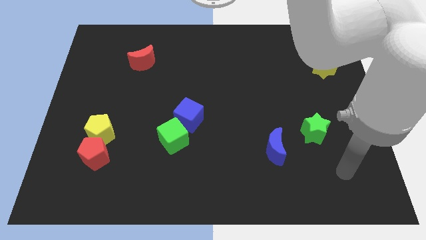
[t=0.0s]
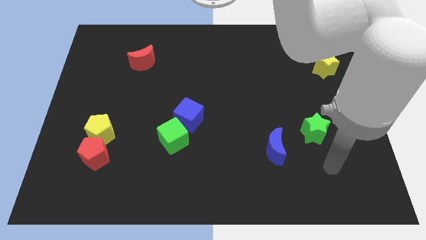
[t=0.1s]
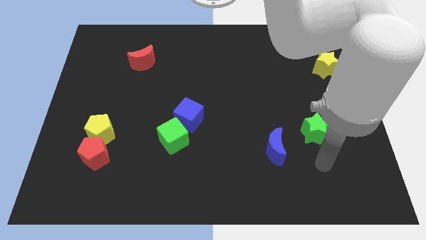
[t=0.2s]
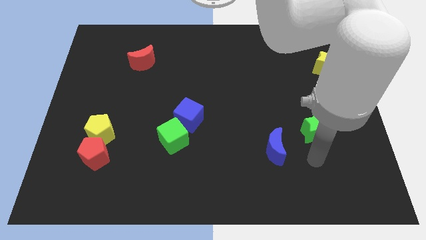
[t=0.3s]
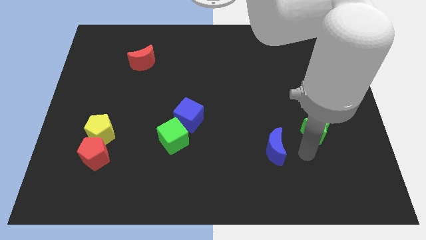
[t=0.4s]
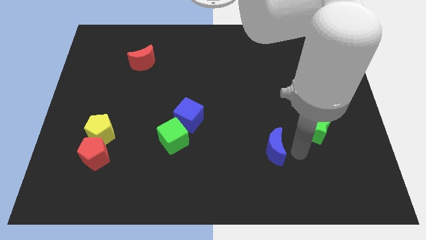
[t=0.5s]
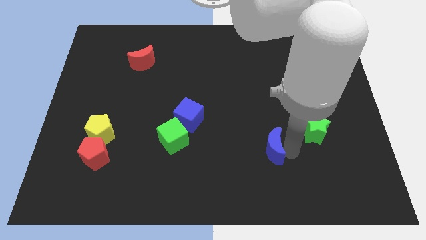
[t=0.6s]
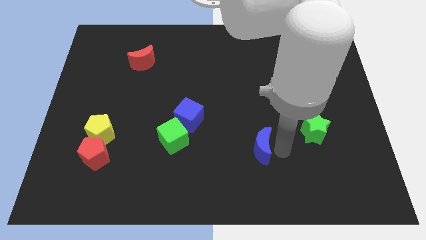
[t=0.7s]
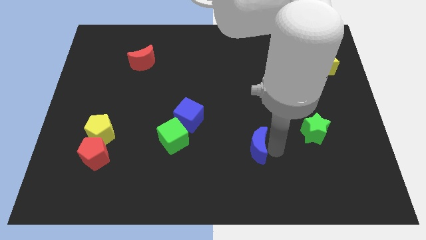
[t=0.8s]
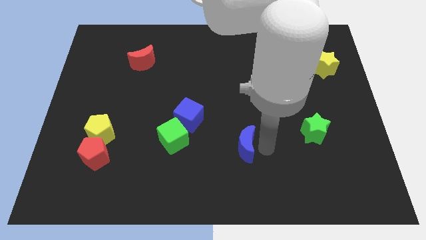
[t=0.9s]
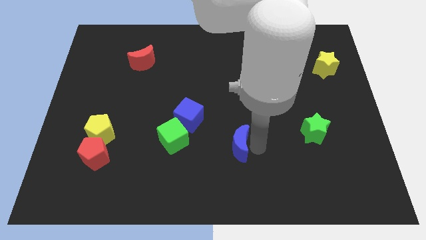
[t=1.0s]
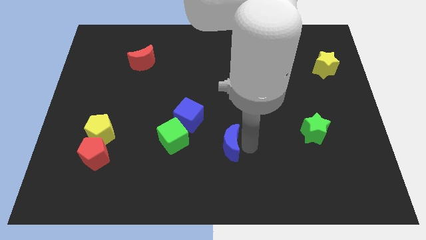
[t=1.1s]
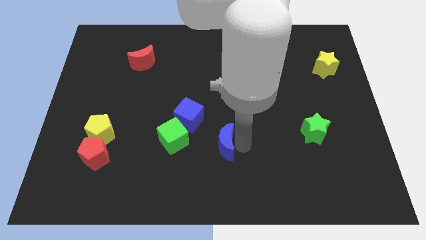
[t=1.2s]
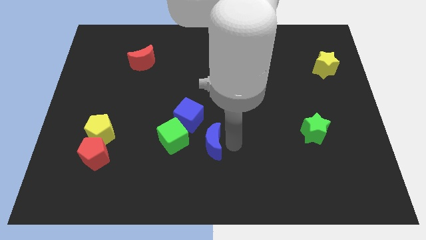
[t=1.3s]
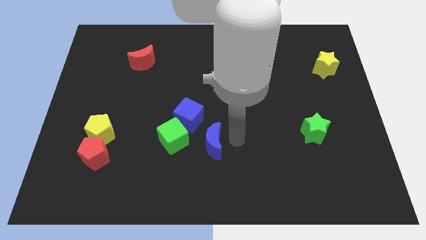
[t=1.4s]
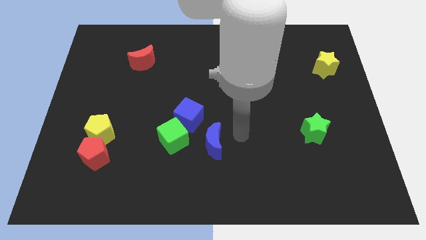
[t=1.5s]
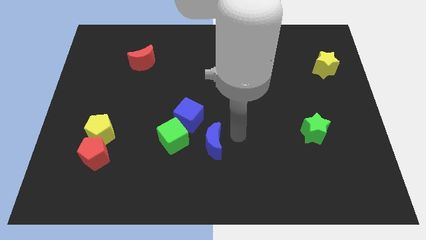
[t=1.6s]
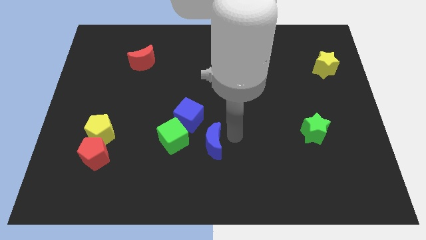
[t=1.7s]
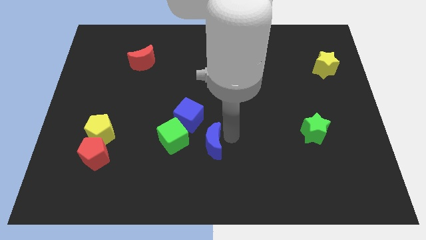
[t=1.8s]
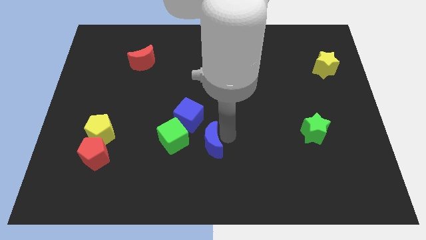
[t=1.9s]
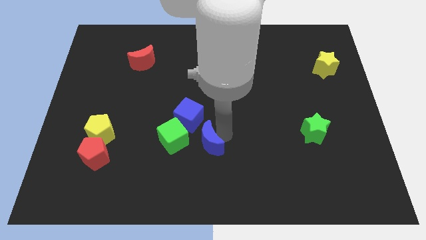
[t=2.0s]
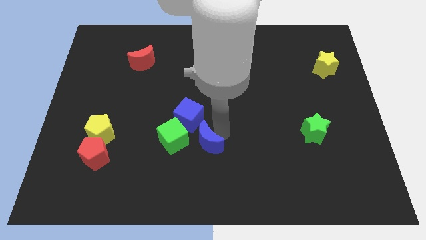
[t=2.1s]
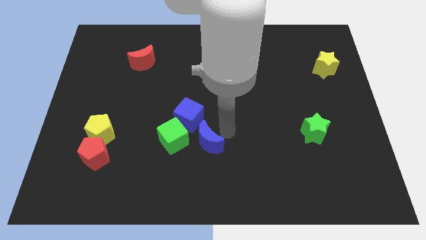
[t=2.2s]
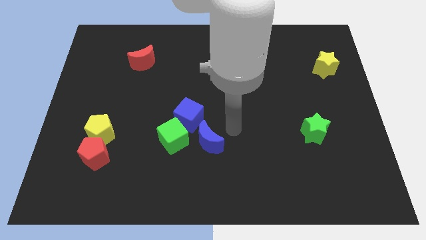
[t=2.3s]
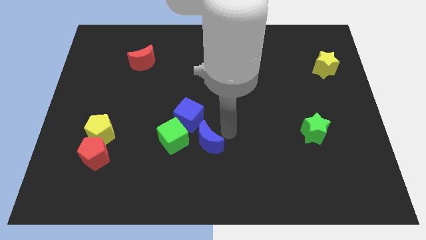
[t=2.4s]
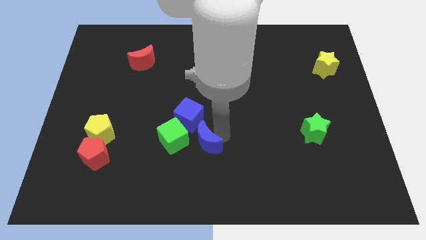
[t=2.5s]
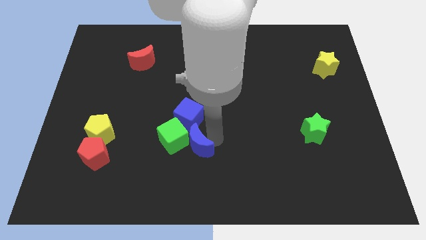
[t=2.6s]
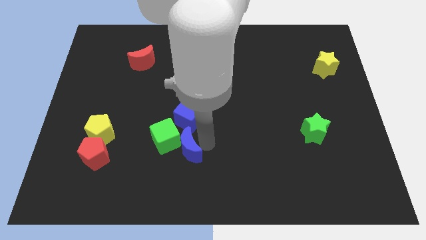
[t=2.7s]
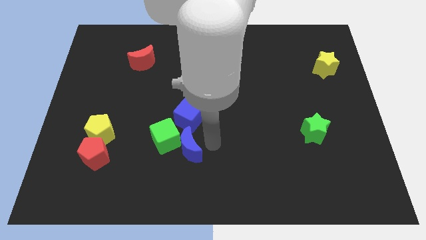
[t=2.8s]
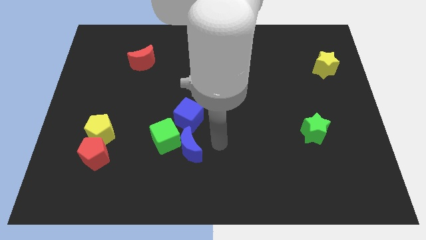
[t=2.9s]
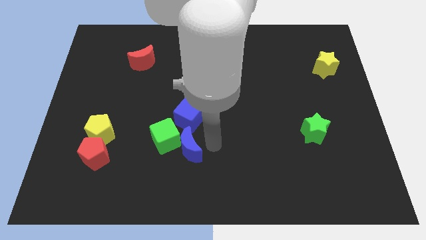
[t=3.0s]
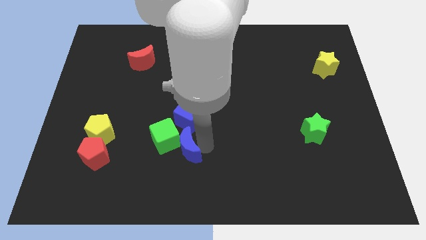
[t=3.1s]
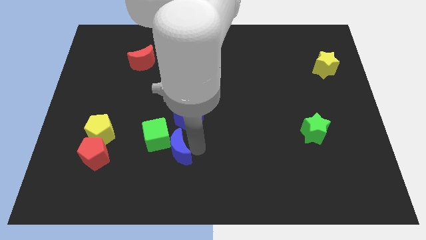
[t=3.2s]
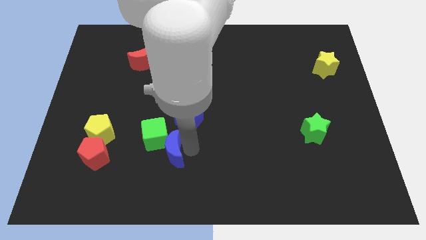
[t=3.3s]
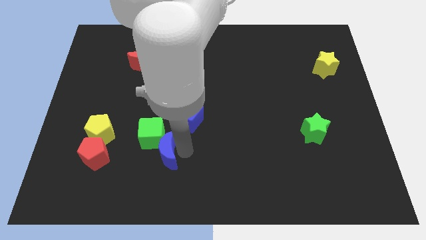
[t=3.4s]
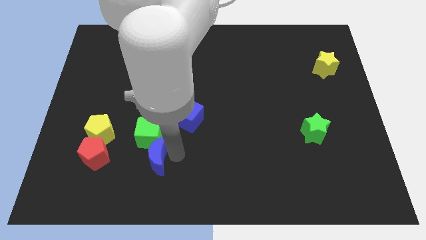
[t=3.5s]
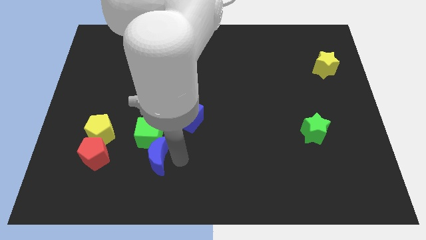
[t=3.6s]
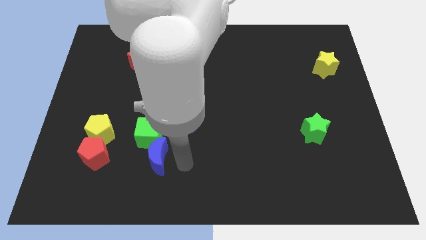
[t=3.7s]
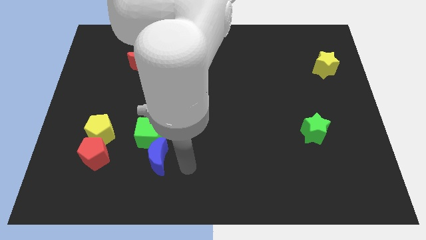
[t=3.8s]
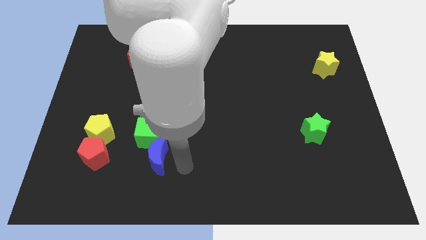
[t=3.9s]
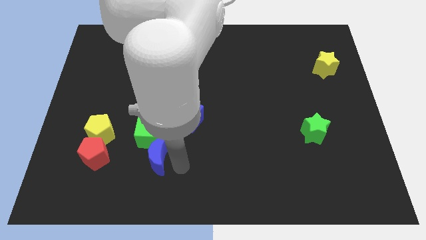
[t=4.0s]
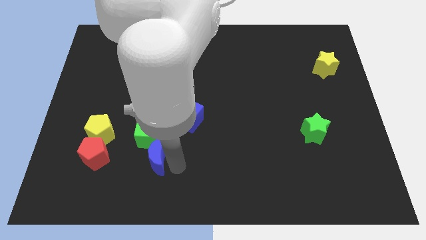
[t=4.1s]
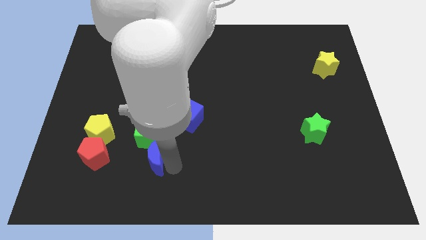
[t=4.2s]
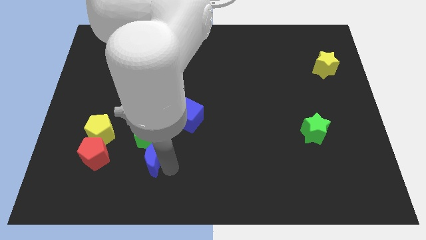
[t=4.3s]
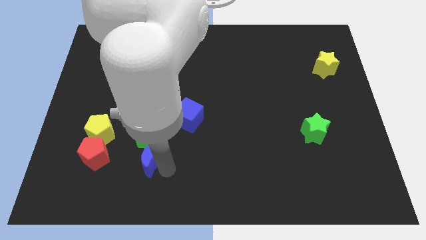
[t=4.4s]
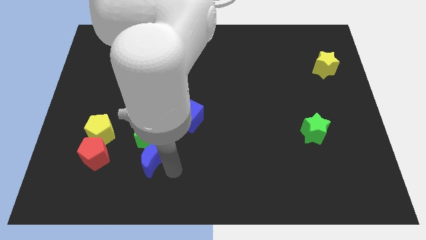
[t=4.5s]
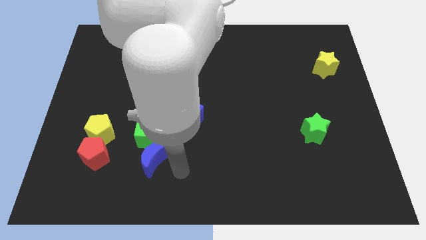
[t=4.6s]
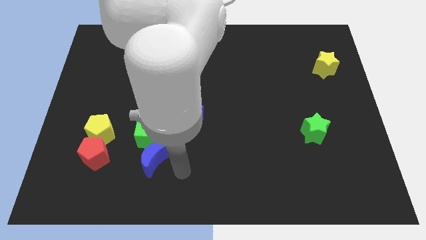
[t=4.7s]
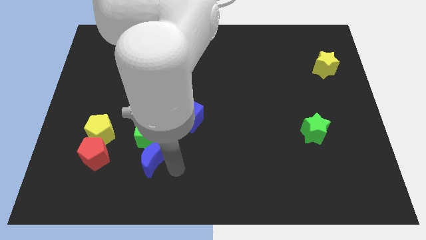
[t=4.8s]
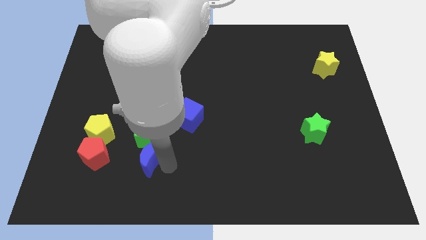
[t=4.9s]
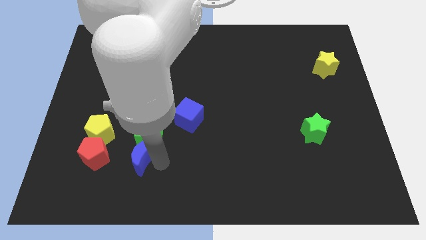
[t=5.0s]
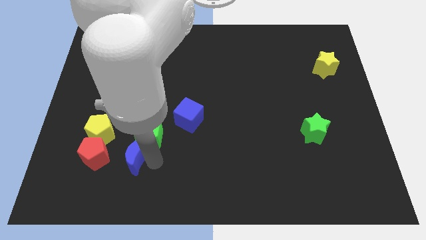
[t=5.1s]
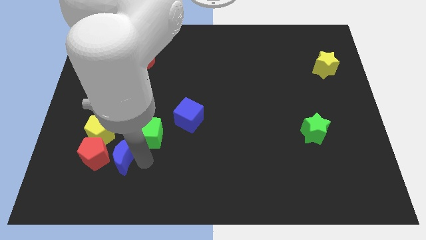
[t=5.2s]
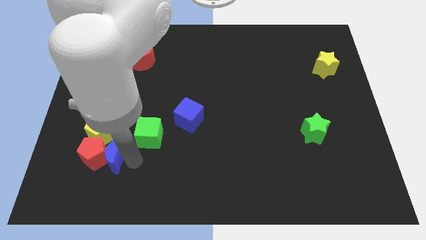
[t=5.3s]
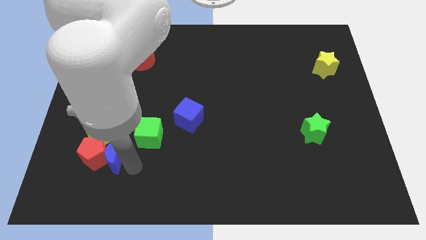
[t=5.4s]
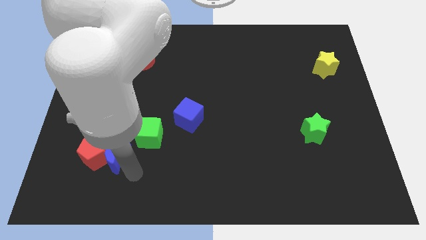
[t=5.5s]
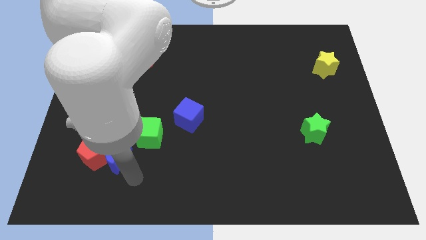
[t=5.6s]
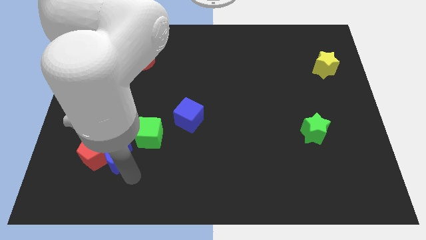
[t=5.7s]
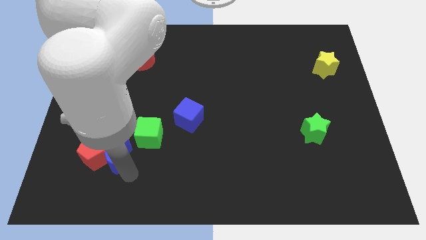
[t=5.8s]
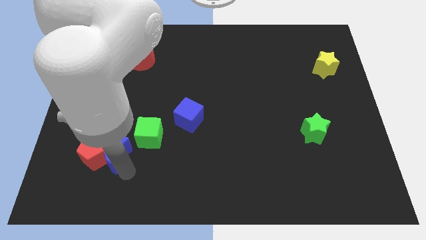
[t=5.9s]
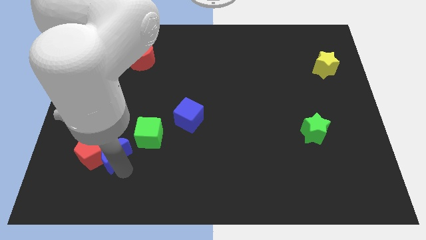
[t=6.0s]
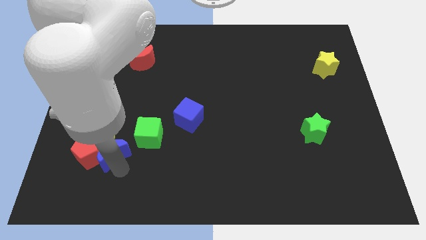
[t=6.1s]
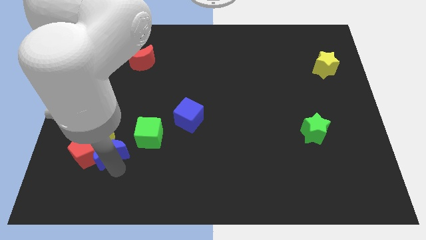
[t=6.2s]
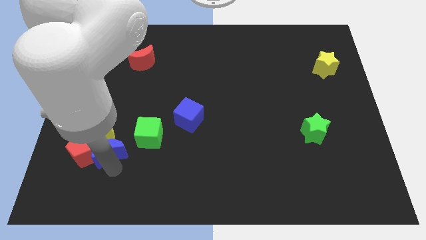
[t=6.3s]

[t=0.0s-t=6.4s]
push the blue moon next to the yellow pentagon

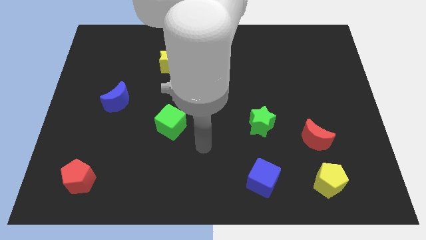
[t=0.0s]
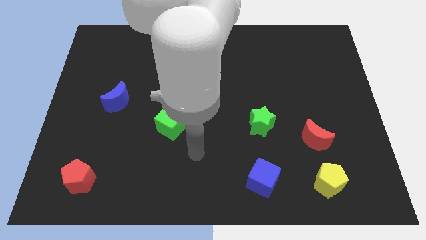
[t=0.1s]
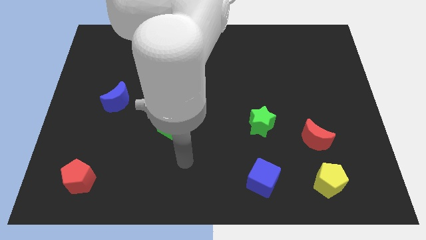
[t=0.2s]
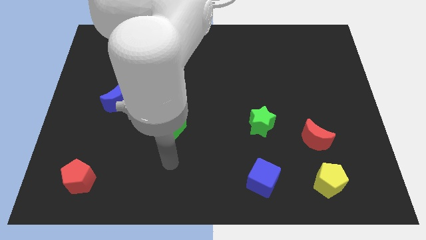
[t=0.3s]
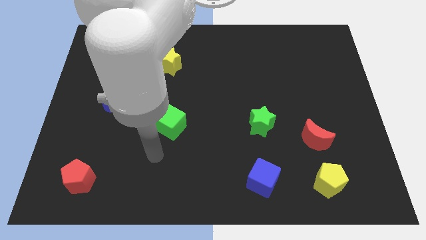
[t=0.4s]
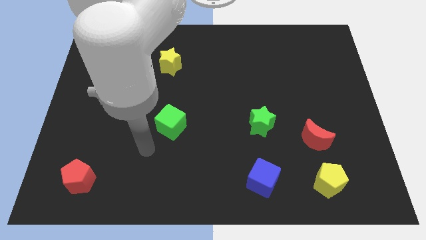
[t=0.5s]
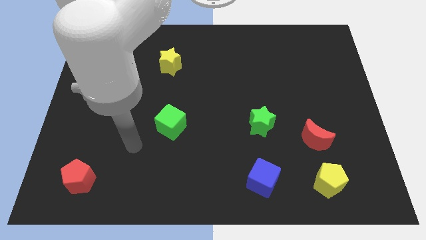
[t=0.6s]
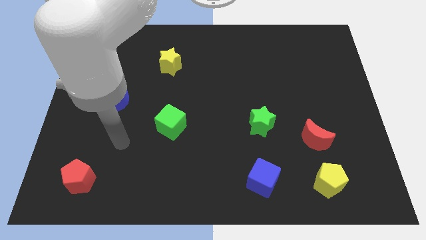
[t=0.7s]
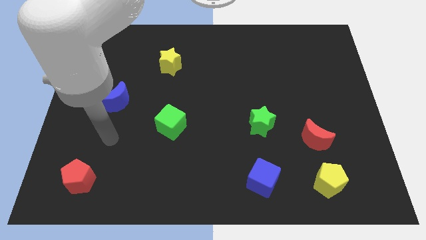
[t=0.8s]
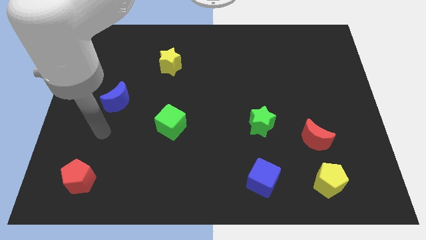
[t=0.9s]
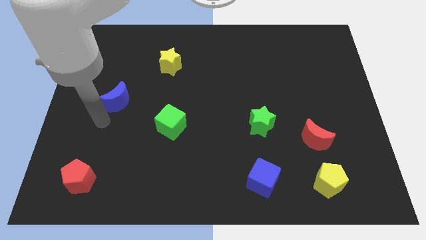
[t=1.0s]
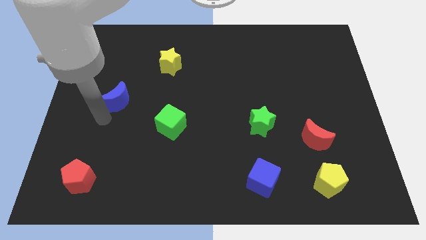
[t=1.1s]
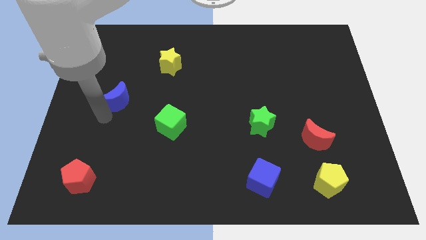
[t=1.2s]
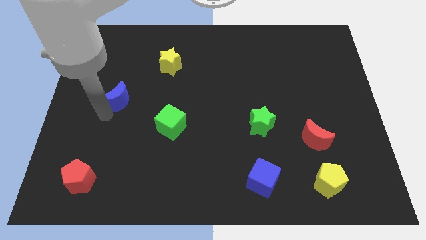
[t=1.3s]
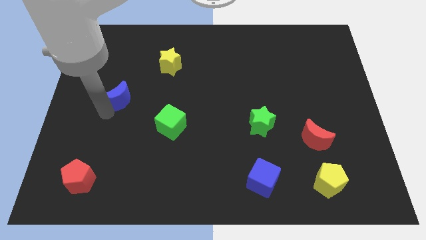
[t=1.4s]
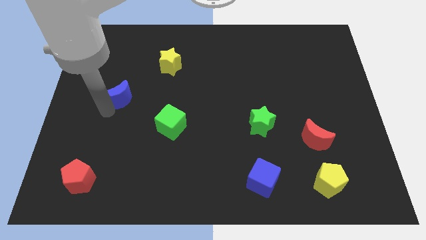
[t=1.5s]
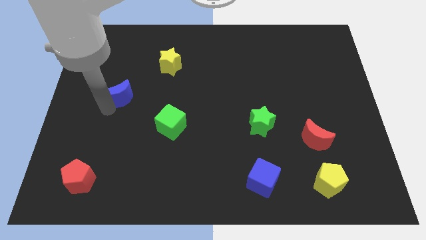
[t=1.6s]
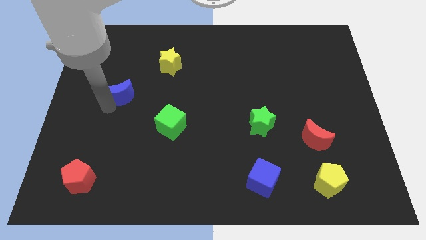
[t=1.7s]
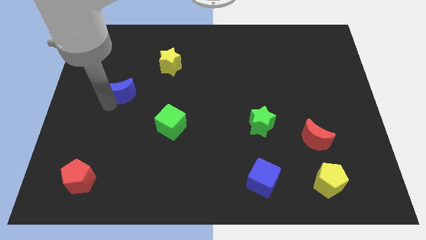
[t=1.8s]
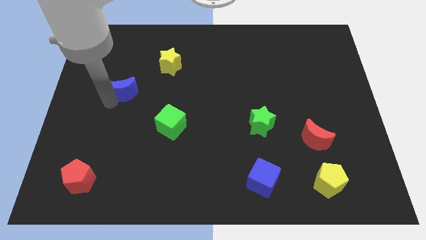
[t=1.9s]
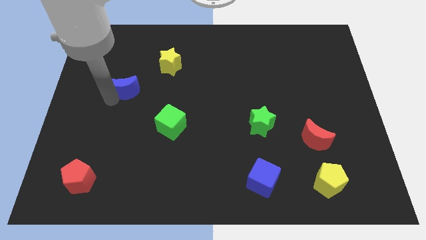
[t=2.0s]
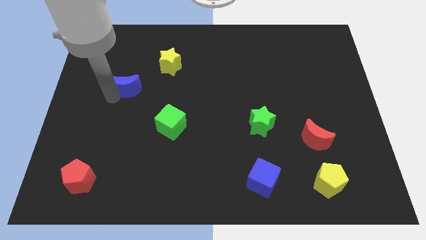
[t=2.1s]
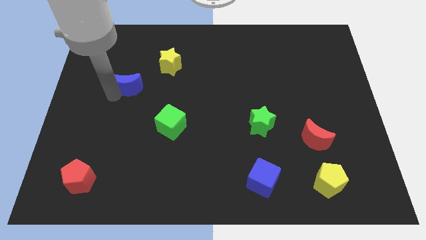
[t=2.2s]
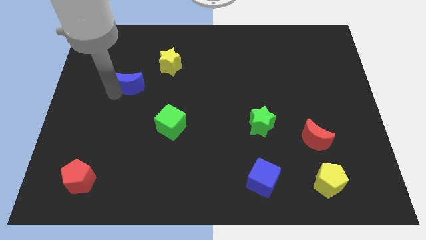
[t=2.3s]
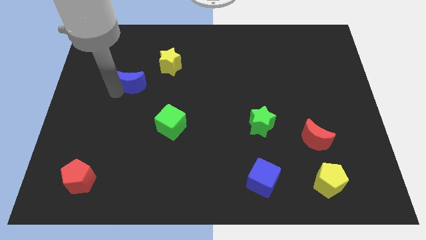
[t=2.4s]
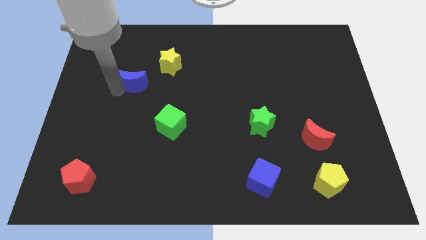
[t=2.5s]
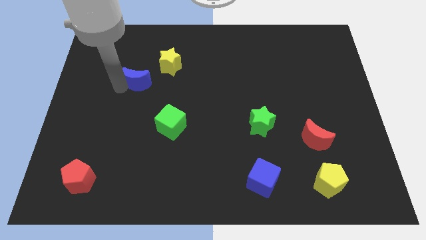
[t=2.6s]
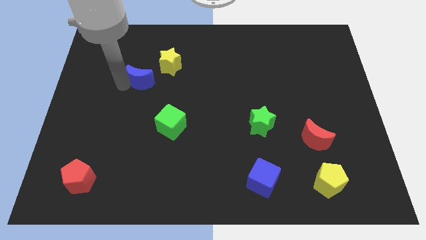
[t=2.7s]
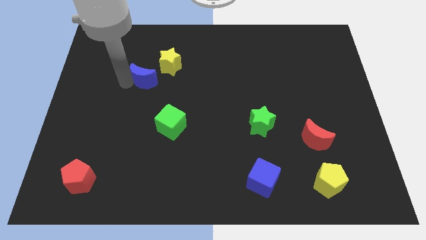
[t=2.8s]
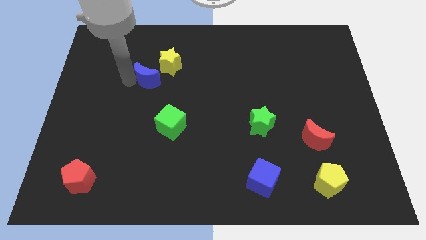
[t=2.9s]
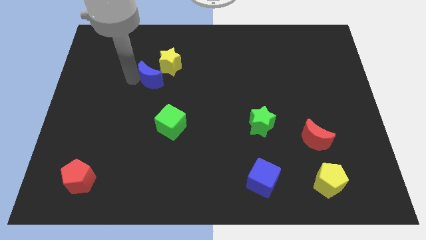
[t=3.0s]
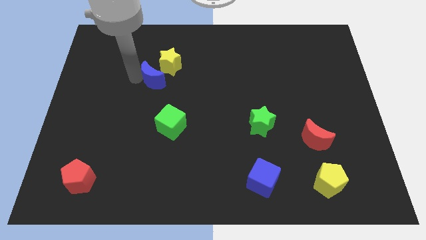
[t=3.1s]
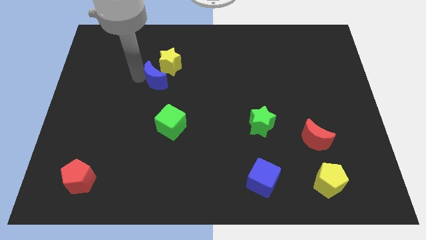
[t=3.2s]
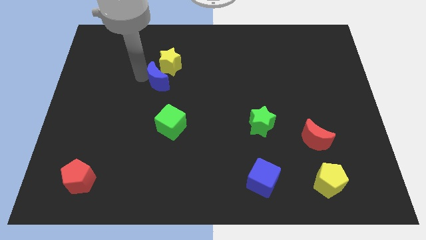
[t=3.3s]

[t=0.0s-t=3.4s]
move the blue moon close to the yellow star
